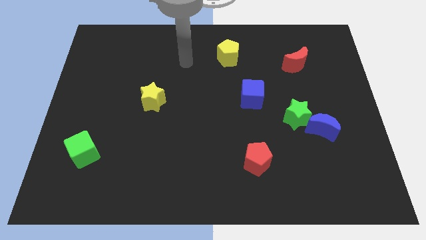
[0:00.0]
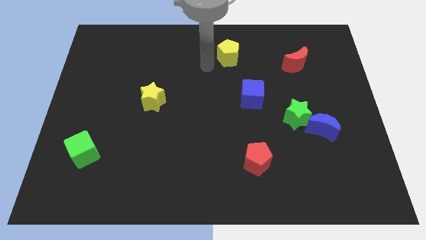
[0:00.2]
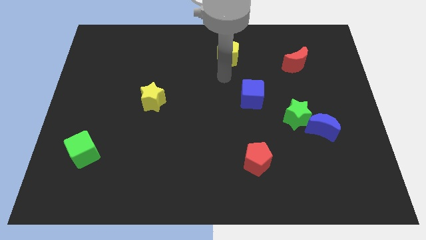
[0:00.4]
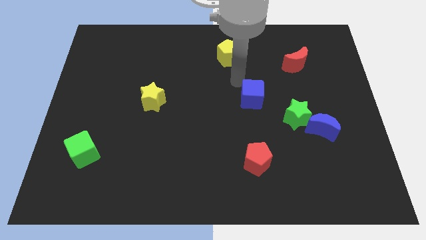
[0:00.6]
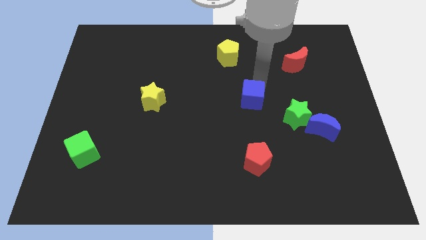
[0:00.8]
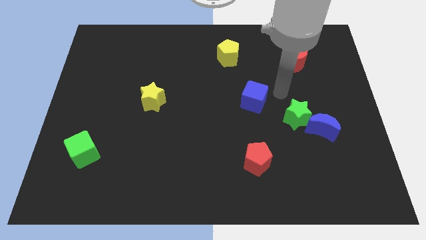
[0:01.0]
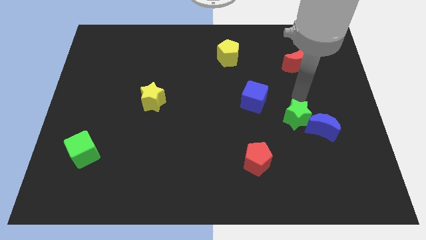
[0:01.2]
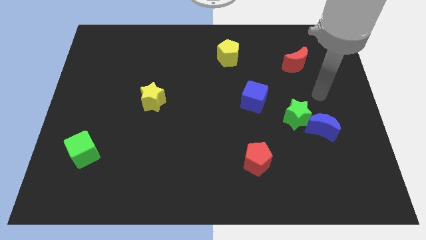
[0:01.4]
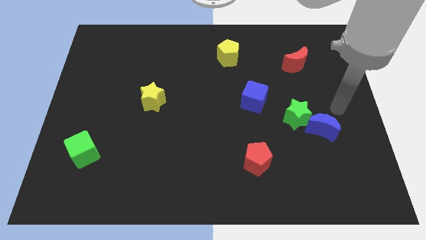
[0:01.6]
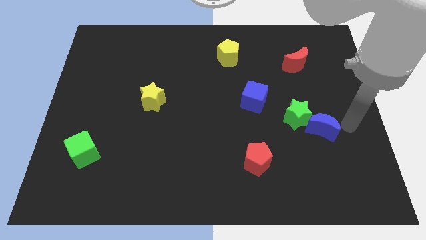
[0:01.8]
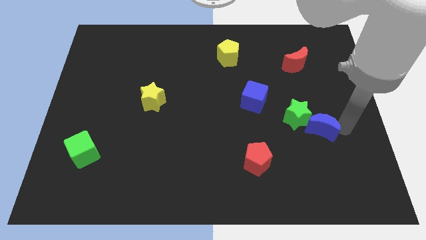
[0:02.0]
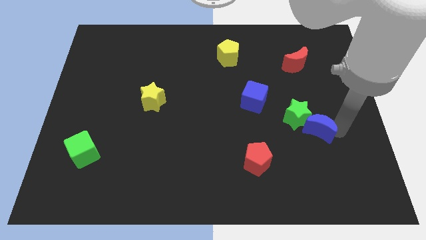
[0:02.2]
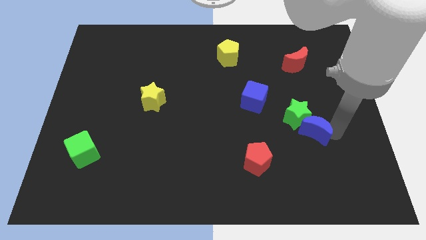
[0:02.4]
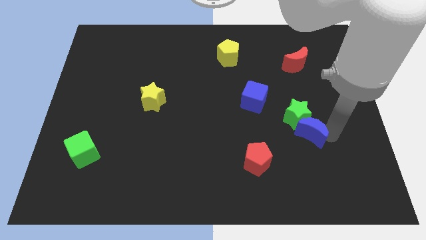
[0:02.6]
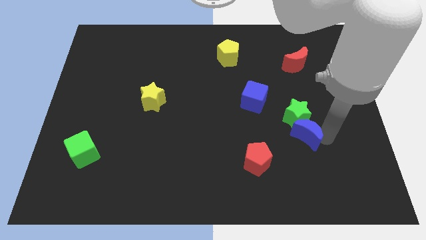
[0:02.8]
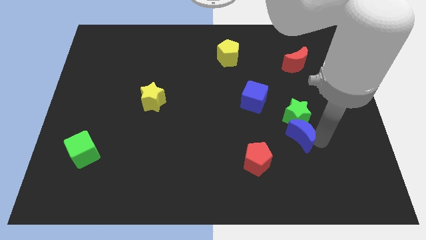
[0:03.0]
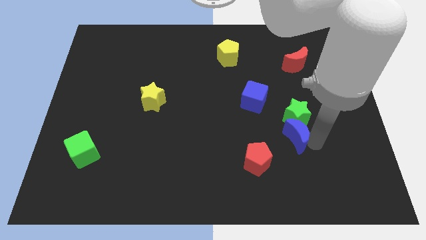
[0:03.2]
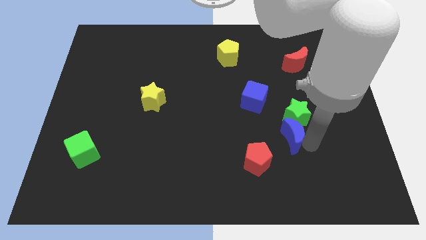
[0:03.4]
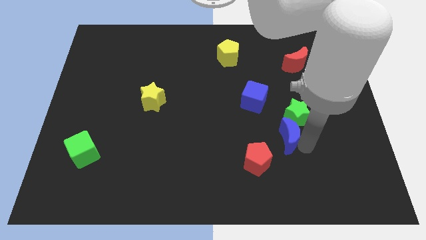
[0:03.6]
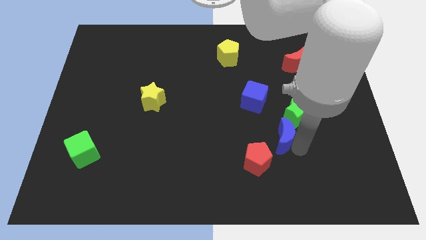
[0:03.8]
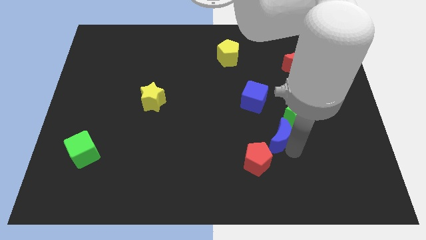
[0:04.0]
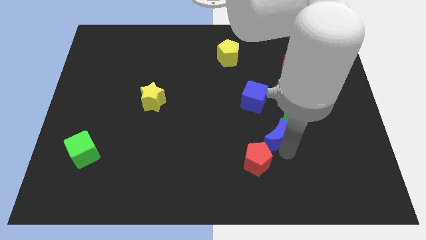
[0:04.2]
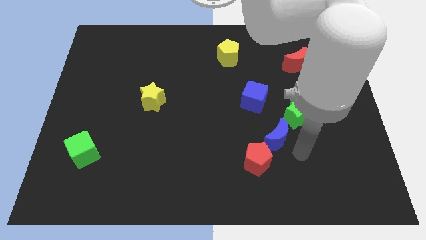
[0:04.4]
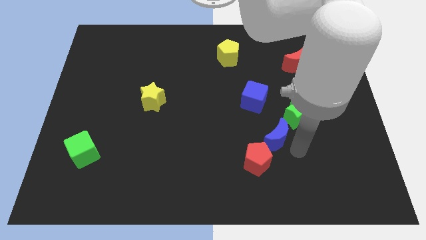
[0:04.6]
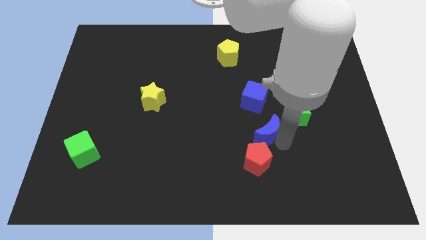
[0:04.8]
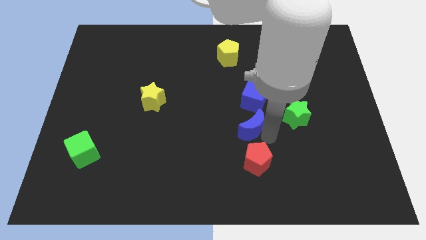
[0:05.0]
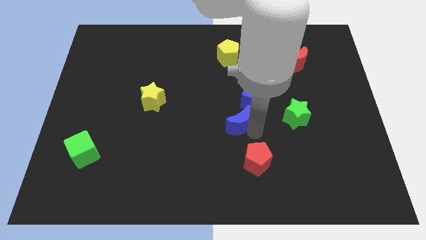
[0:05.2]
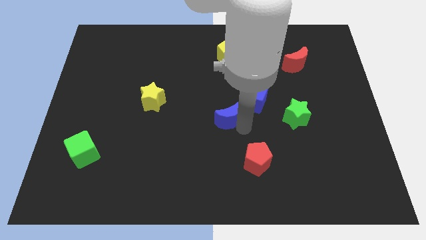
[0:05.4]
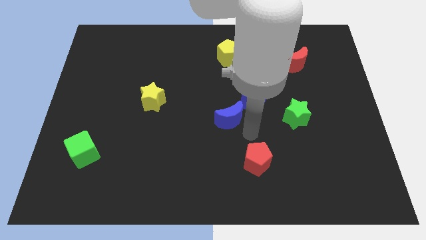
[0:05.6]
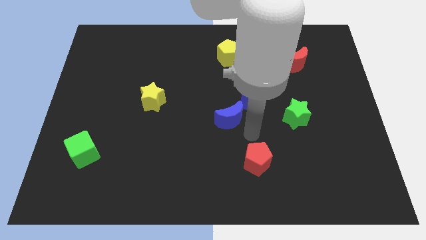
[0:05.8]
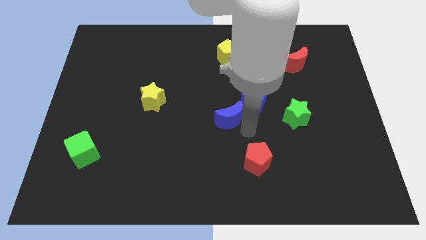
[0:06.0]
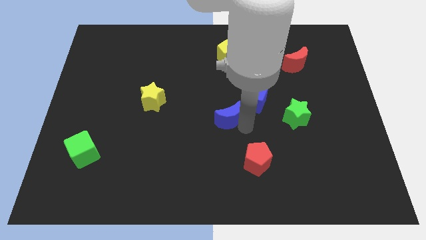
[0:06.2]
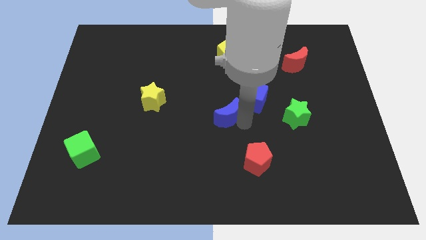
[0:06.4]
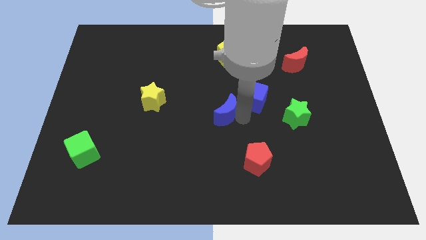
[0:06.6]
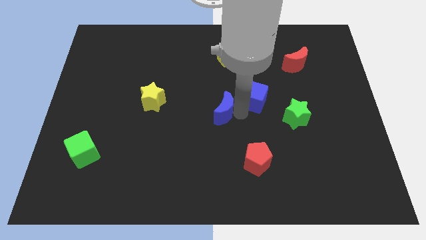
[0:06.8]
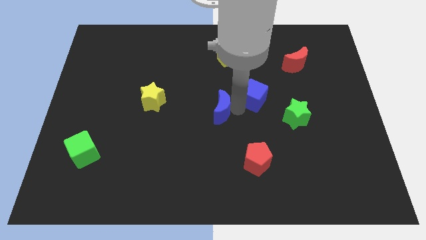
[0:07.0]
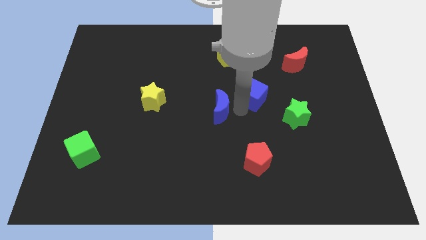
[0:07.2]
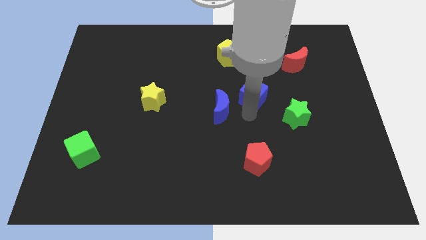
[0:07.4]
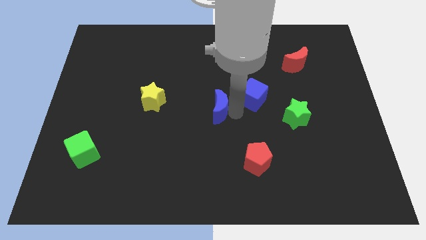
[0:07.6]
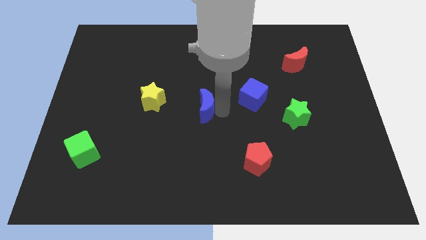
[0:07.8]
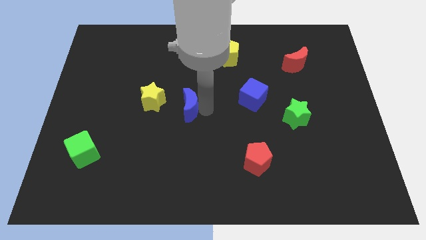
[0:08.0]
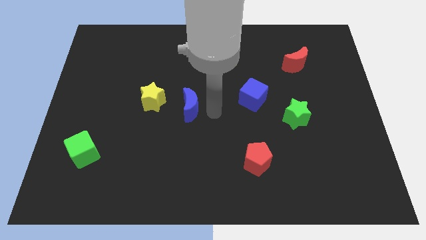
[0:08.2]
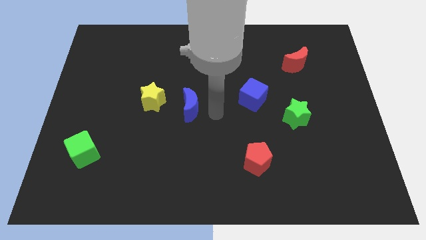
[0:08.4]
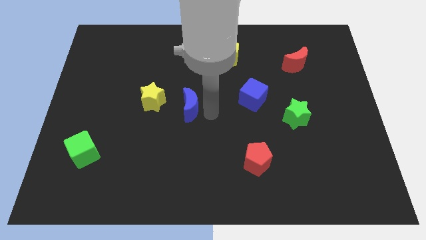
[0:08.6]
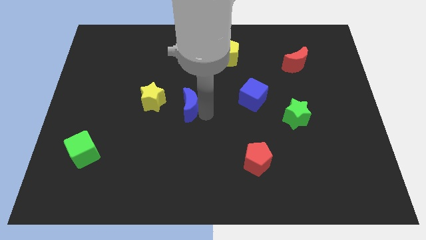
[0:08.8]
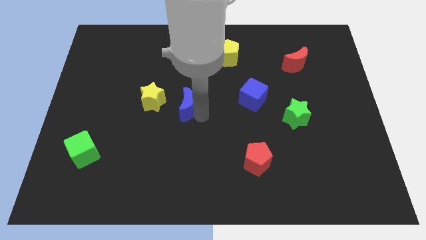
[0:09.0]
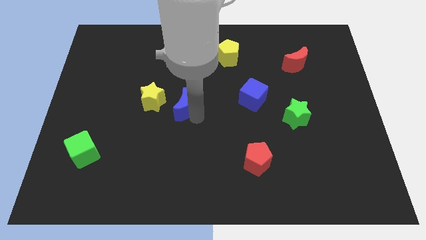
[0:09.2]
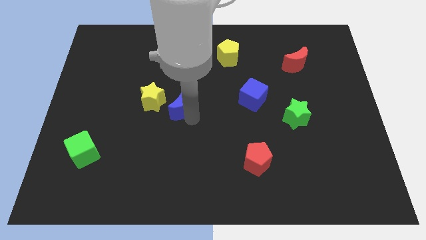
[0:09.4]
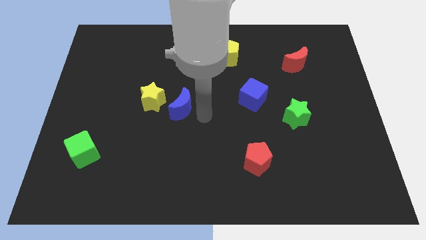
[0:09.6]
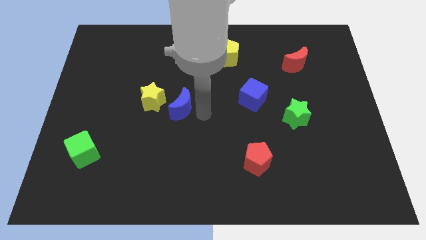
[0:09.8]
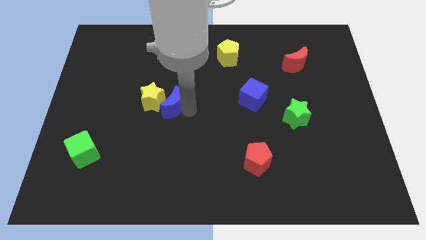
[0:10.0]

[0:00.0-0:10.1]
push the blue moon to the yellow star

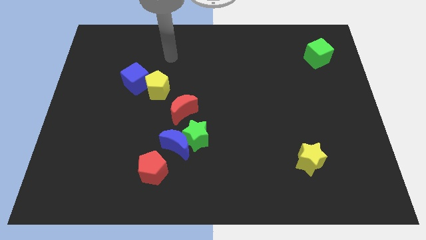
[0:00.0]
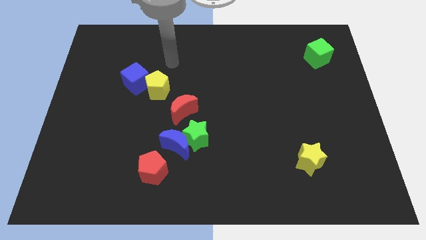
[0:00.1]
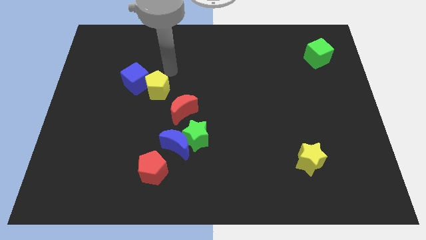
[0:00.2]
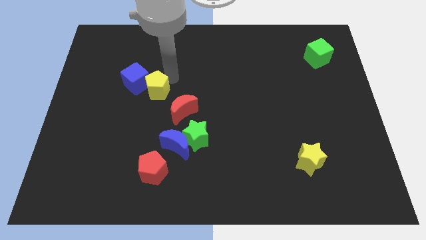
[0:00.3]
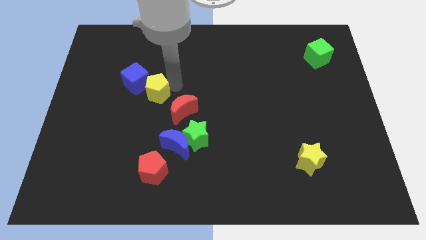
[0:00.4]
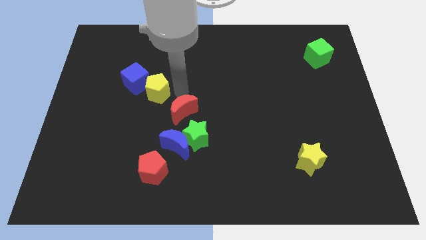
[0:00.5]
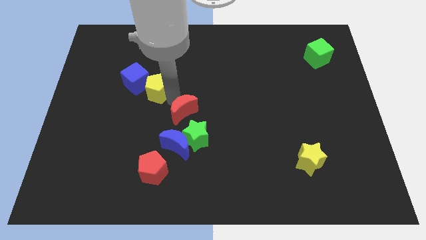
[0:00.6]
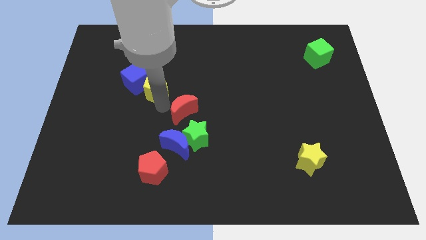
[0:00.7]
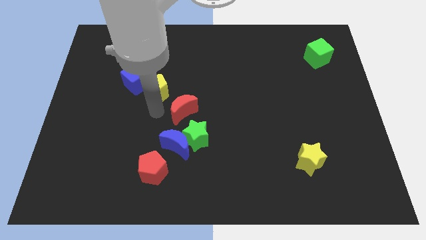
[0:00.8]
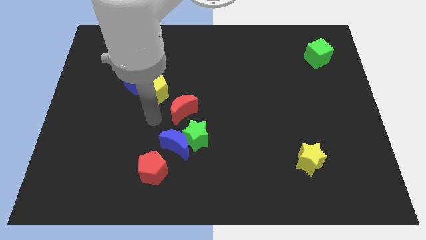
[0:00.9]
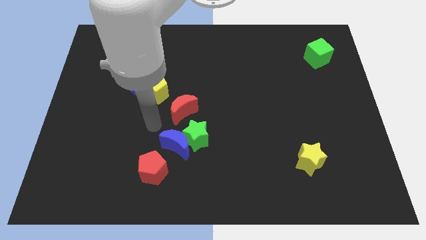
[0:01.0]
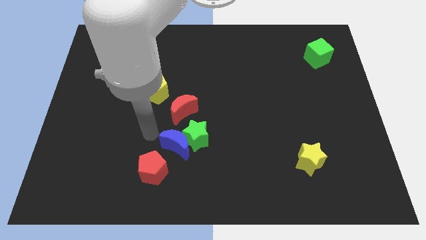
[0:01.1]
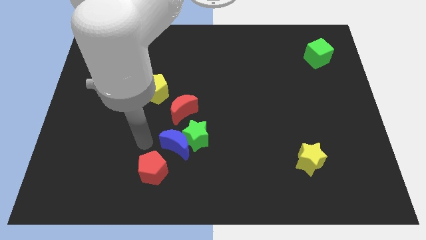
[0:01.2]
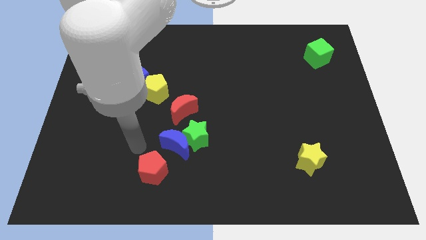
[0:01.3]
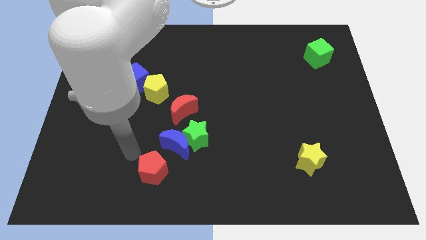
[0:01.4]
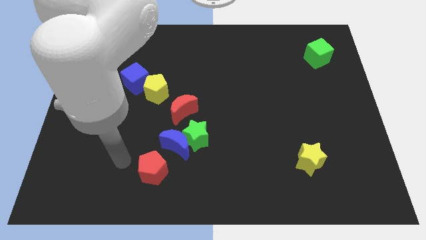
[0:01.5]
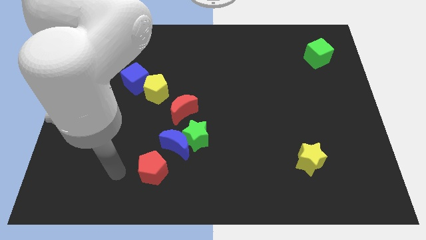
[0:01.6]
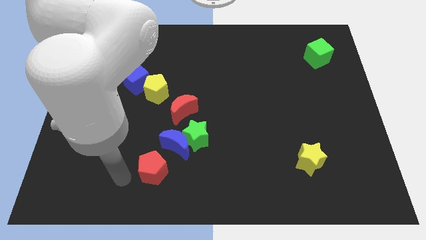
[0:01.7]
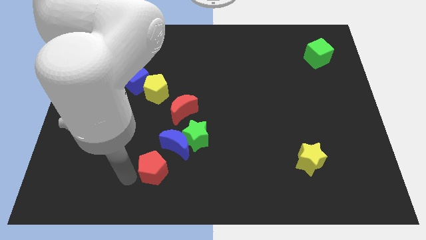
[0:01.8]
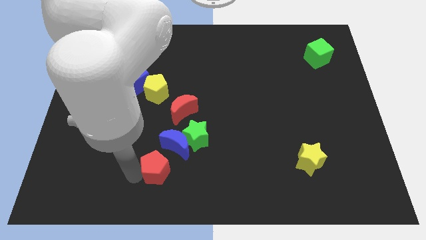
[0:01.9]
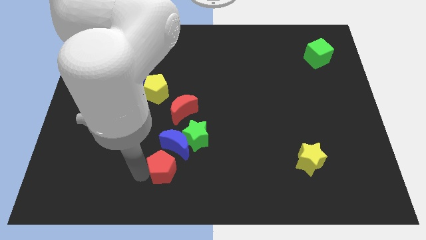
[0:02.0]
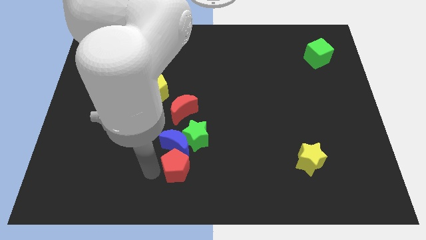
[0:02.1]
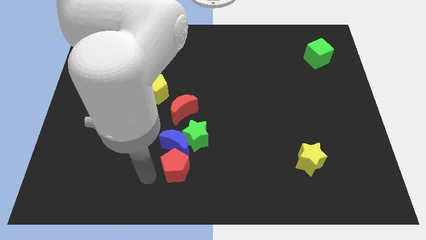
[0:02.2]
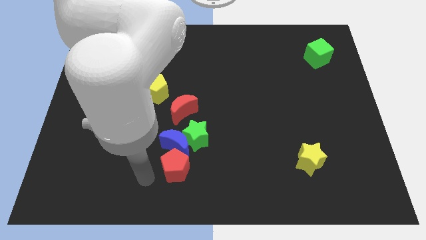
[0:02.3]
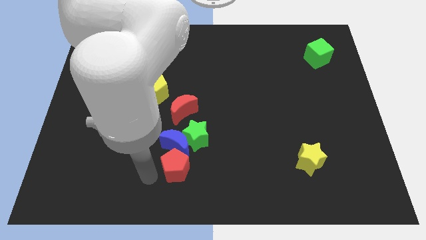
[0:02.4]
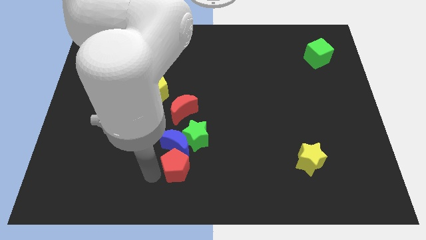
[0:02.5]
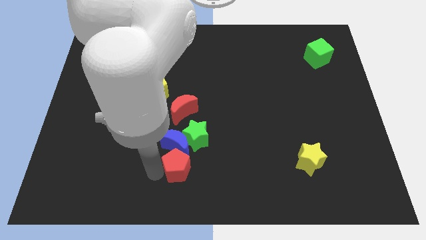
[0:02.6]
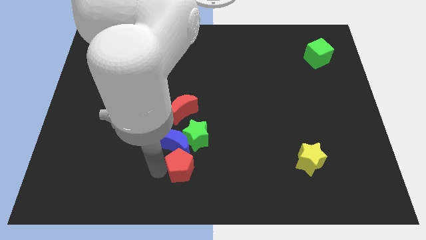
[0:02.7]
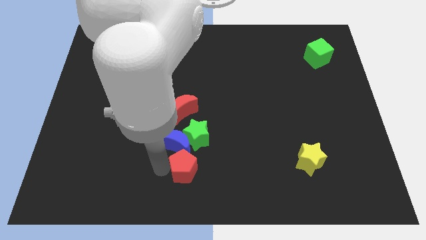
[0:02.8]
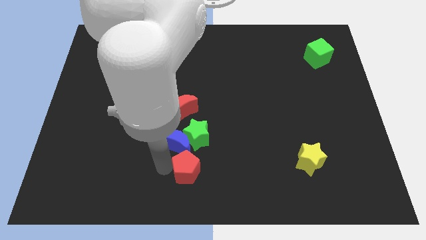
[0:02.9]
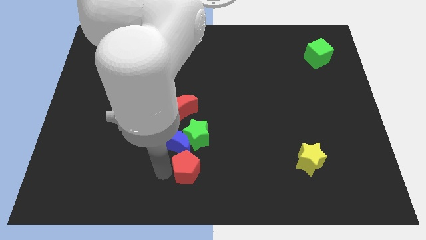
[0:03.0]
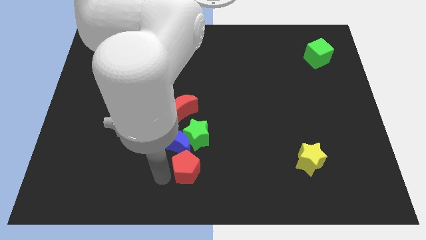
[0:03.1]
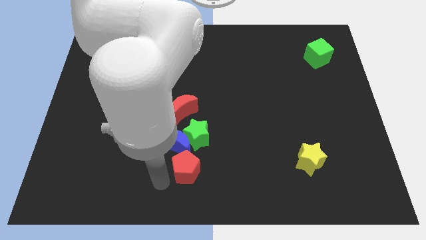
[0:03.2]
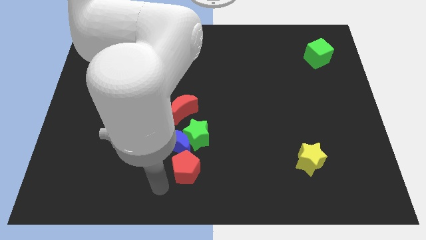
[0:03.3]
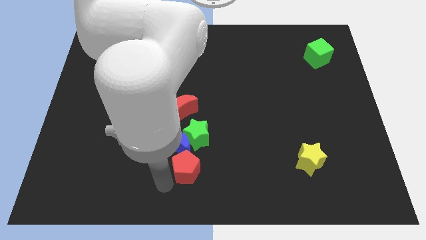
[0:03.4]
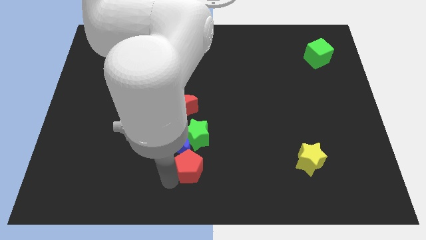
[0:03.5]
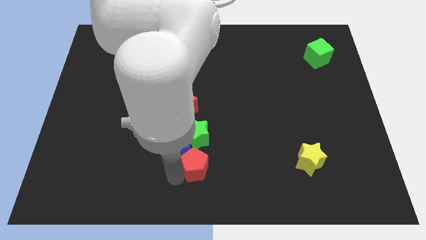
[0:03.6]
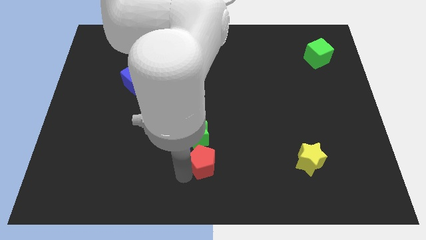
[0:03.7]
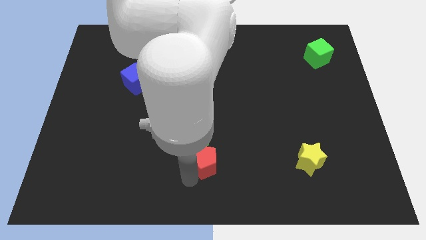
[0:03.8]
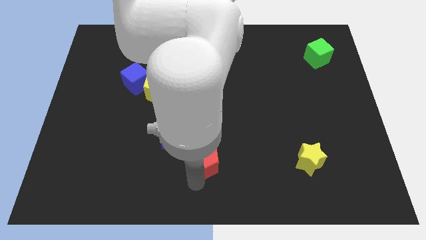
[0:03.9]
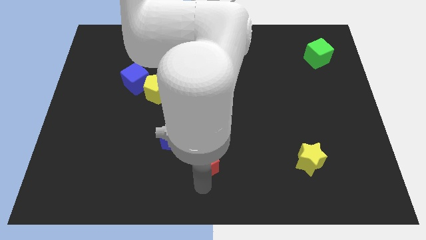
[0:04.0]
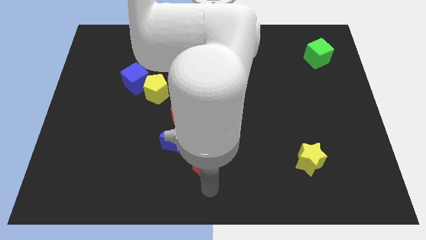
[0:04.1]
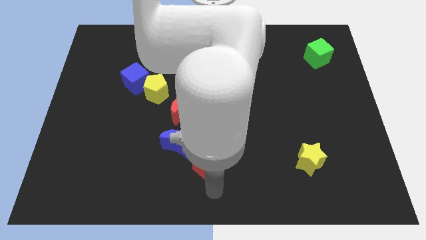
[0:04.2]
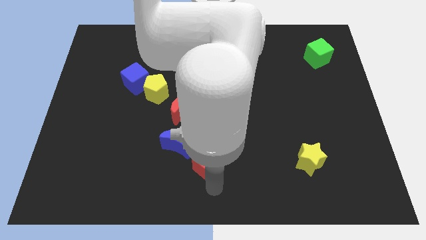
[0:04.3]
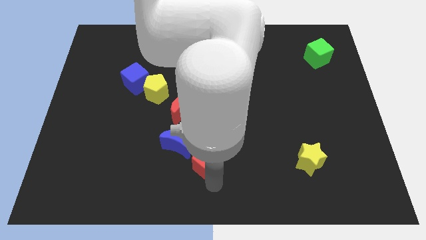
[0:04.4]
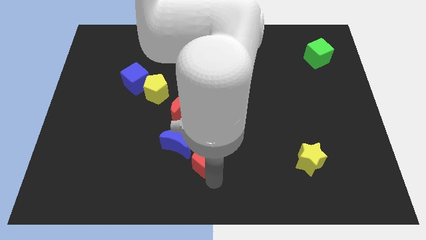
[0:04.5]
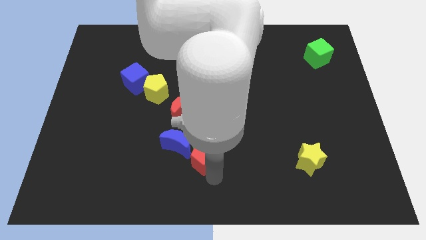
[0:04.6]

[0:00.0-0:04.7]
put the red pentagon to the green star
